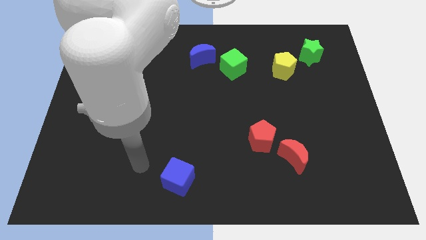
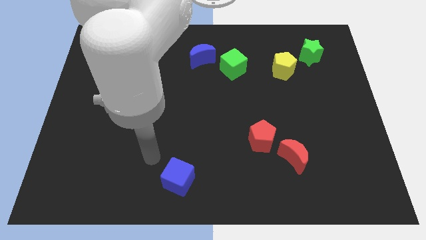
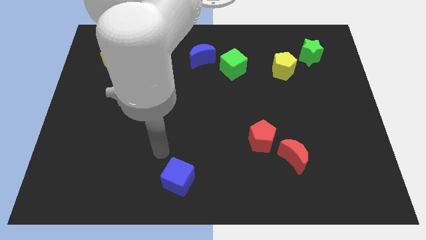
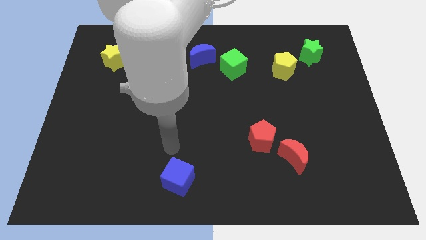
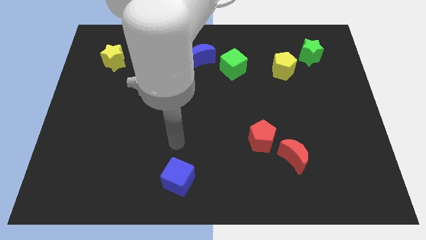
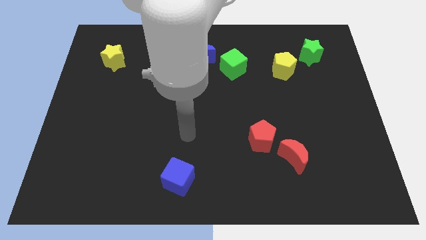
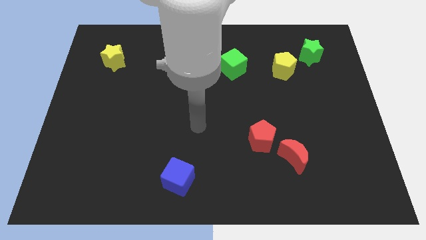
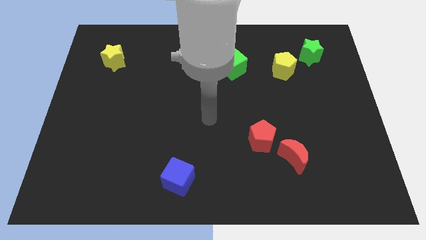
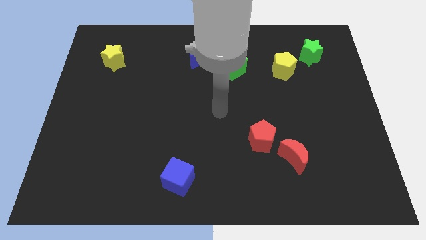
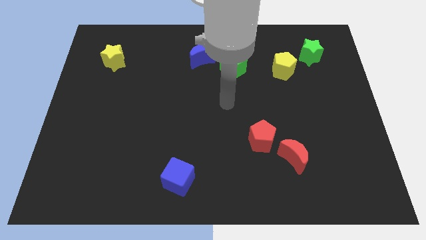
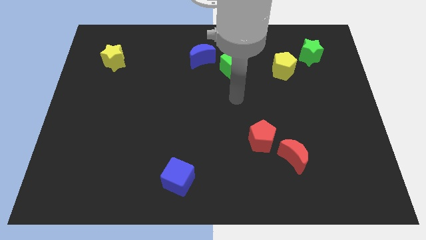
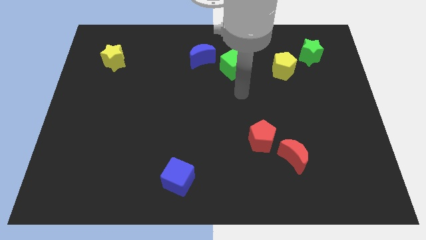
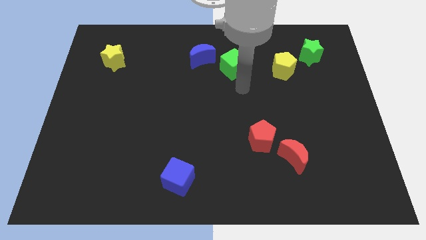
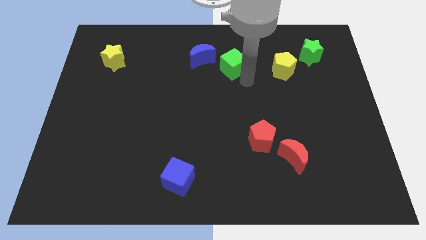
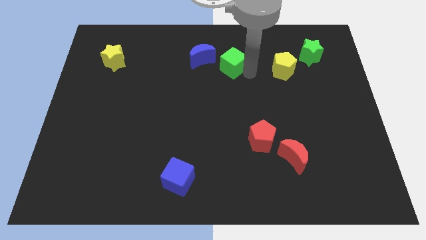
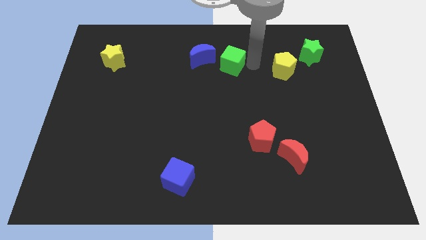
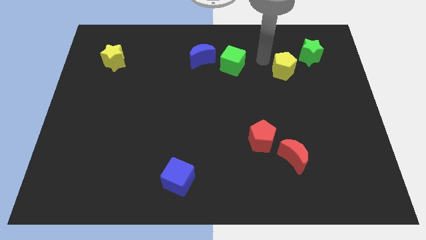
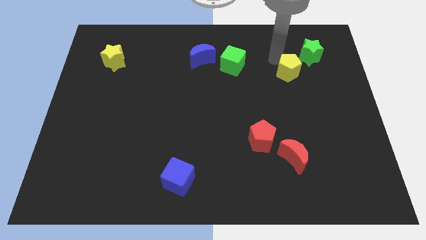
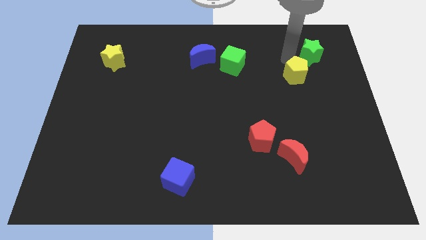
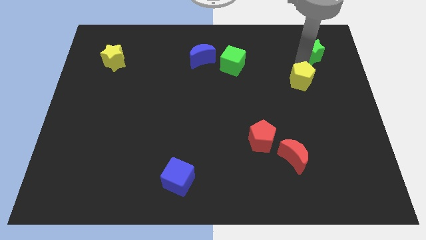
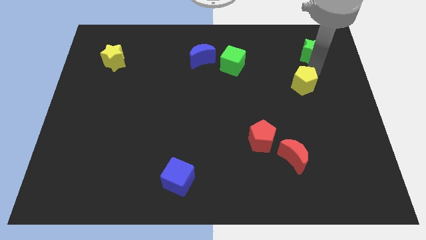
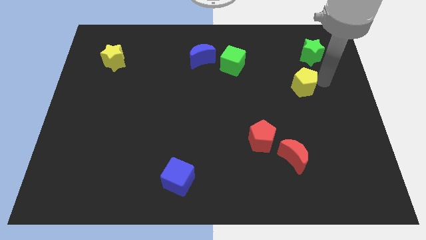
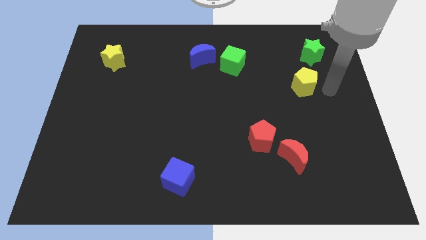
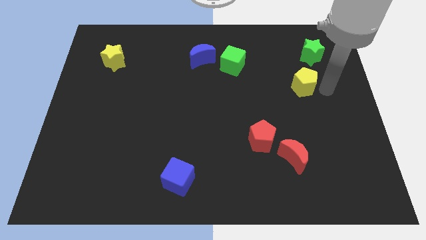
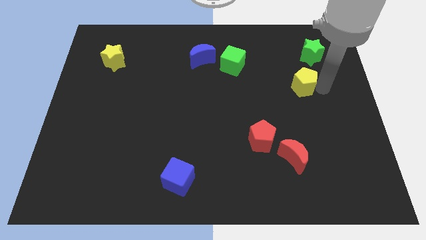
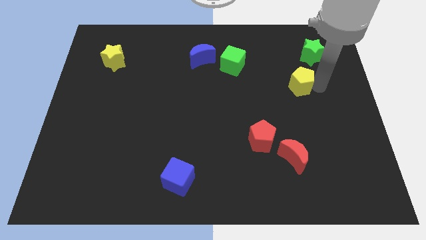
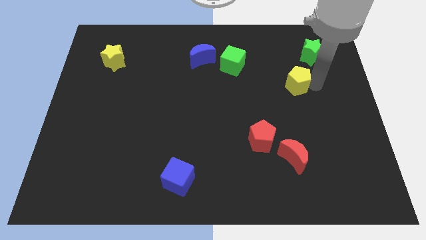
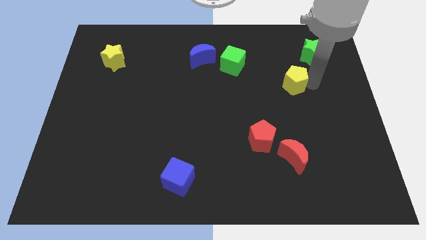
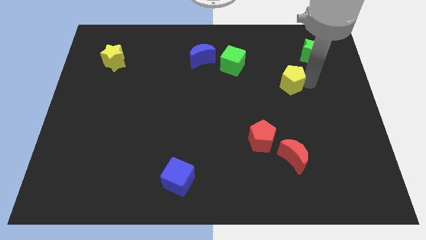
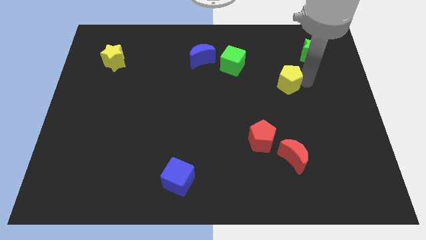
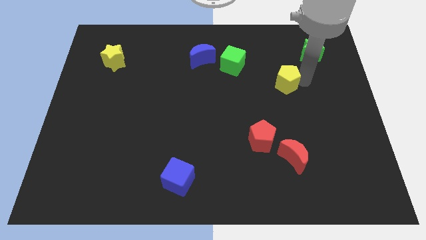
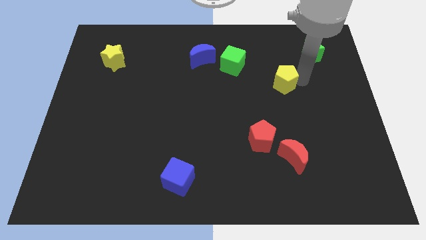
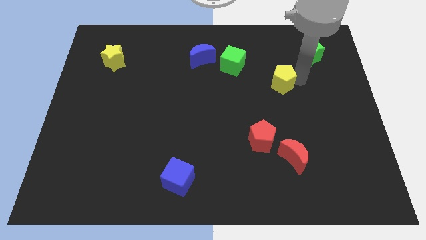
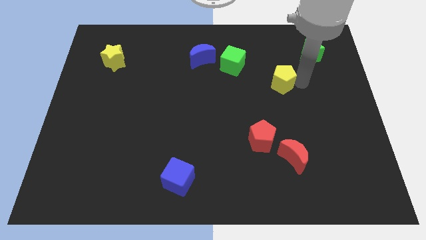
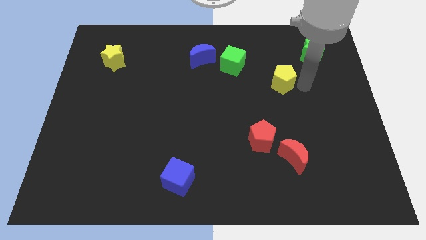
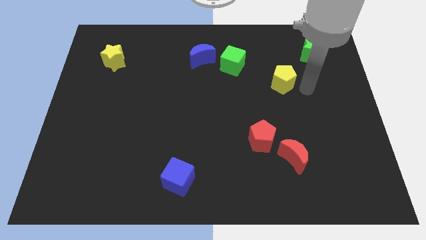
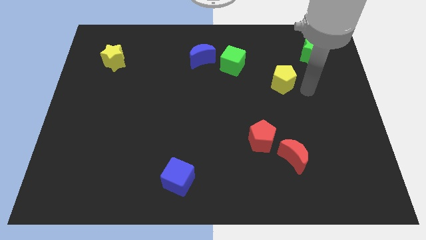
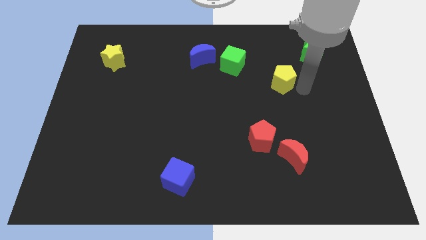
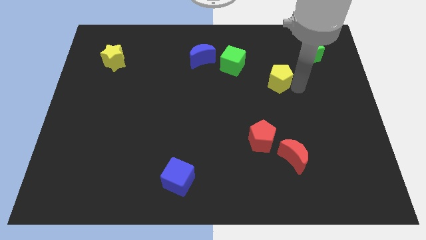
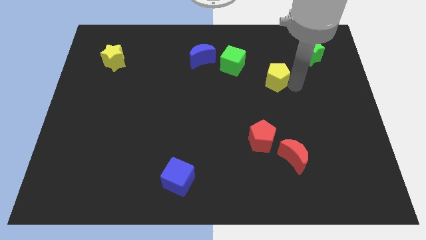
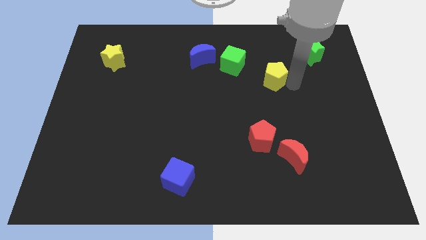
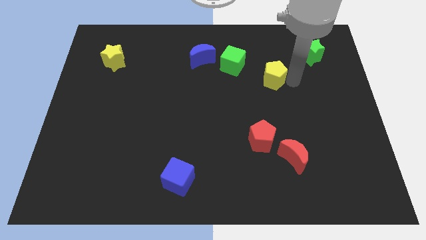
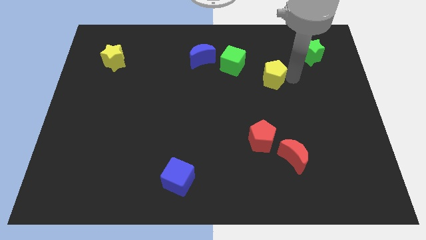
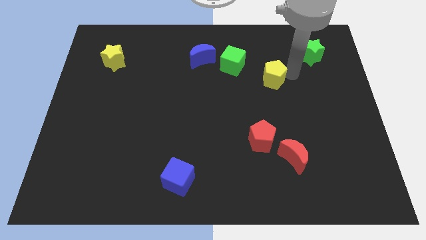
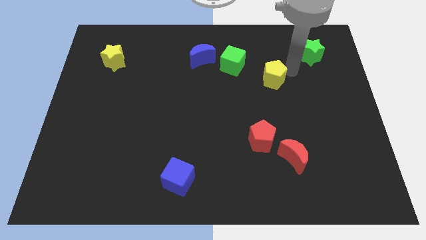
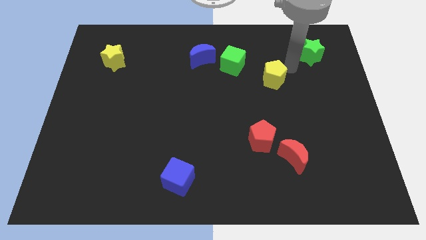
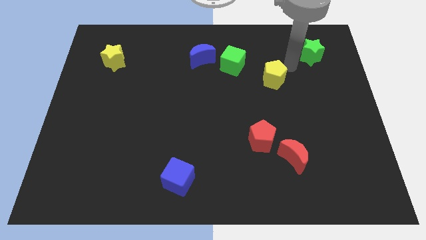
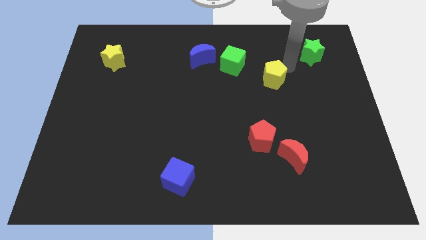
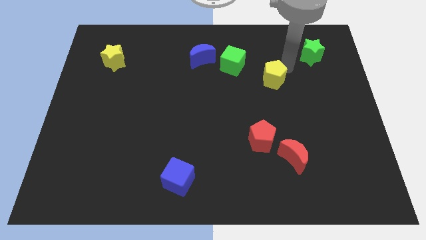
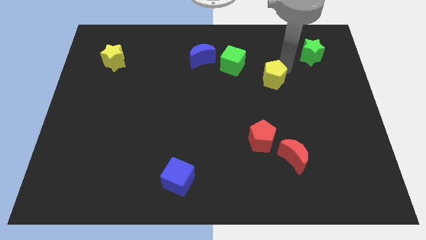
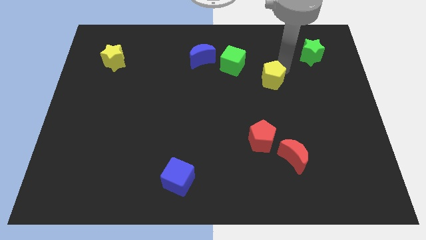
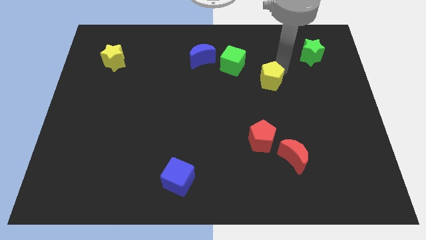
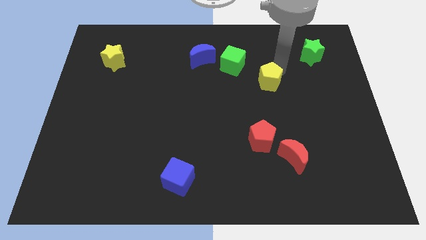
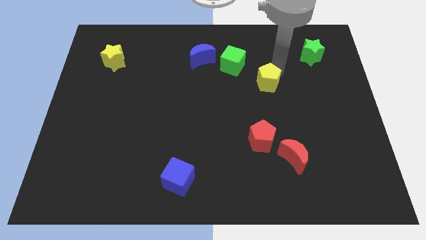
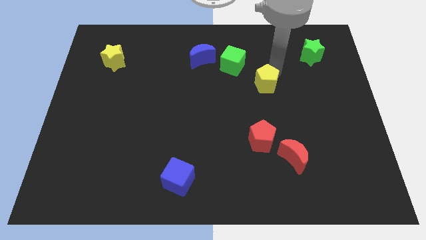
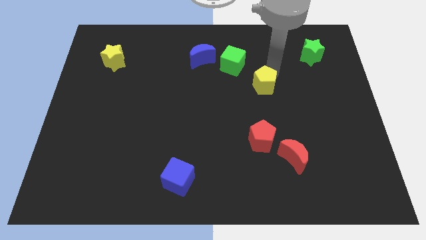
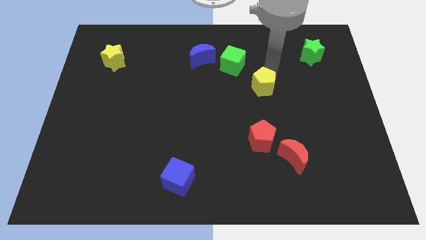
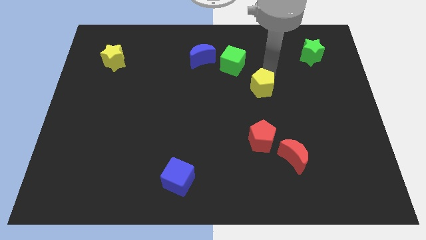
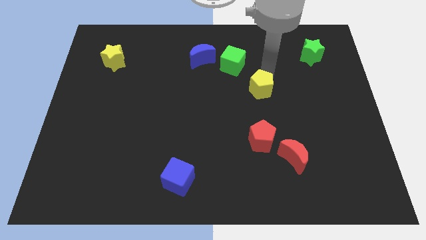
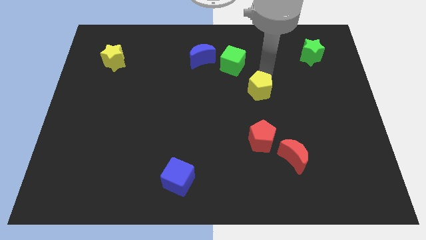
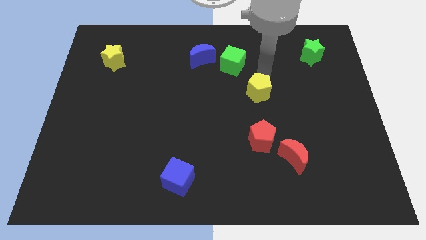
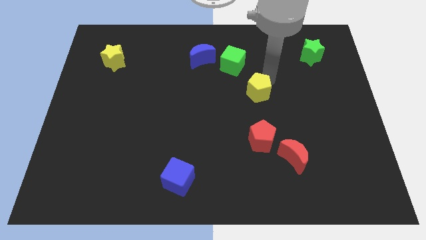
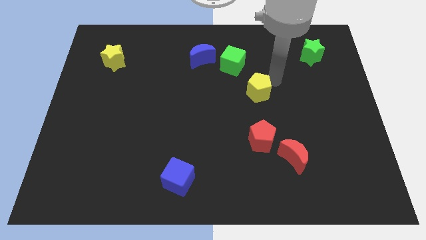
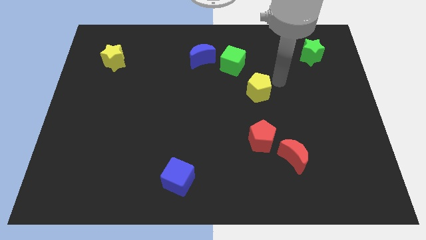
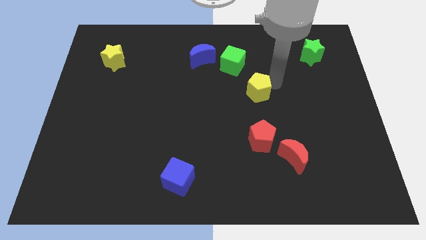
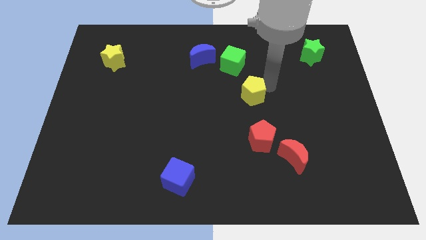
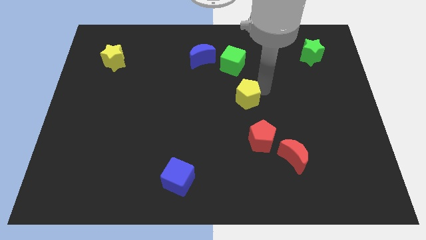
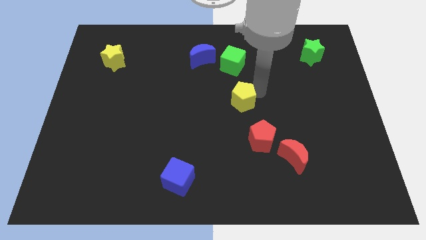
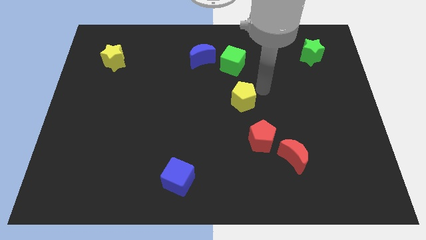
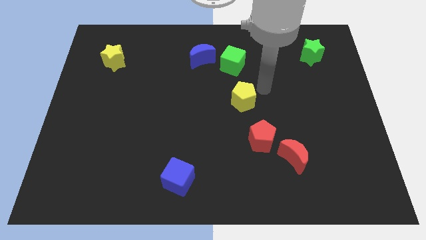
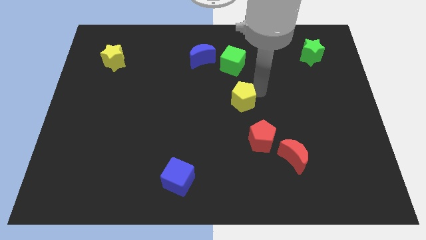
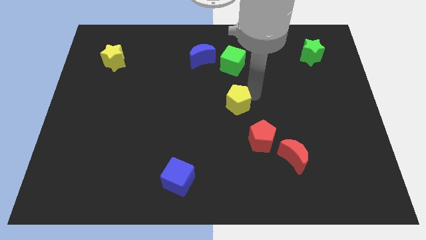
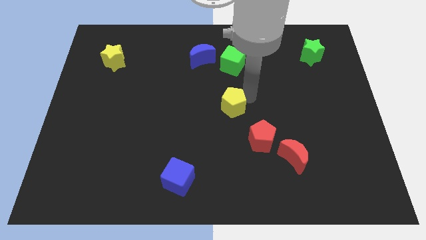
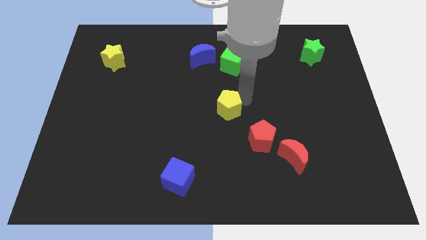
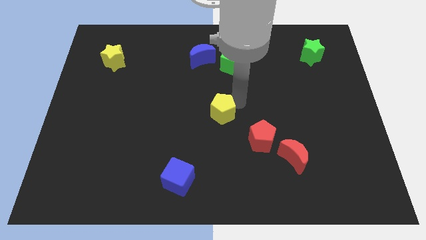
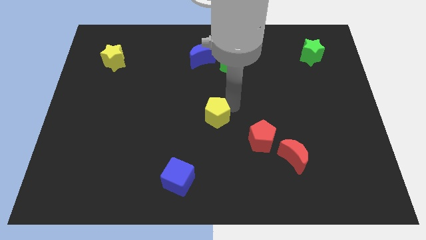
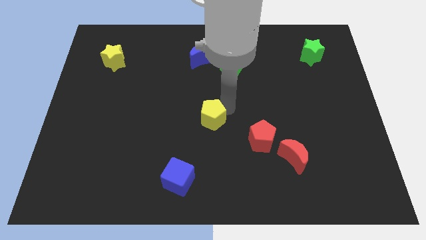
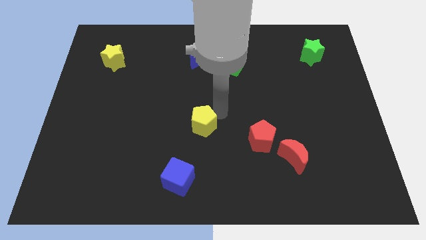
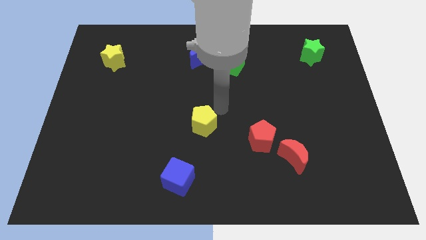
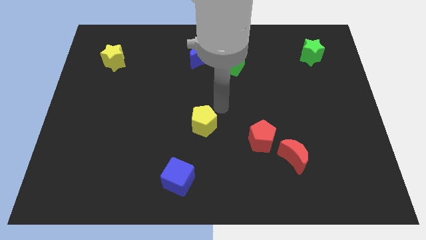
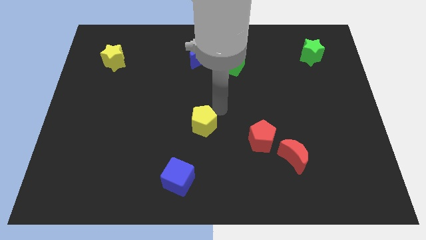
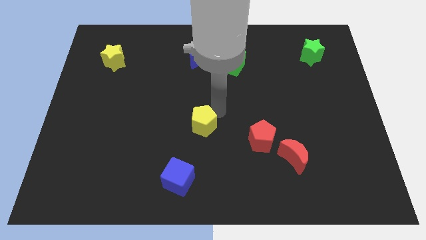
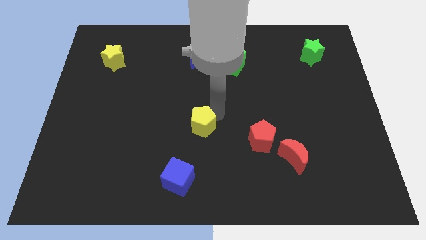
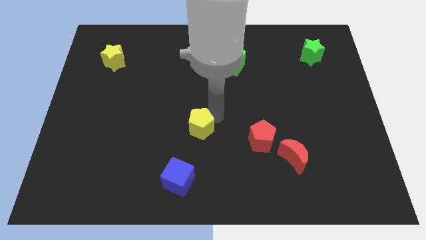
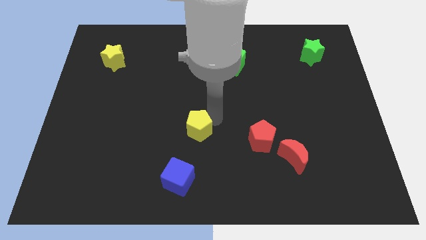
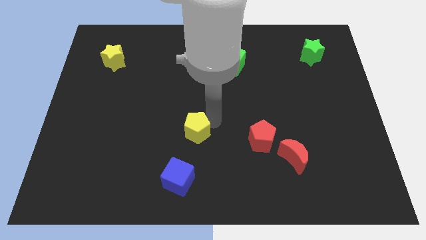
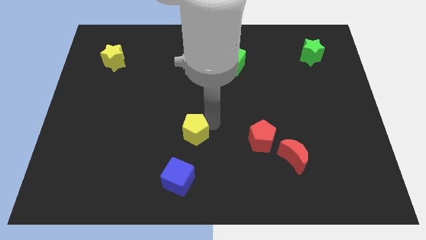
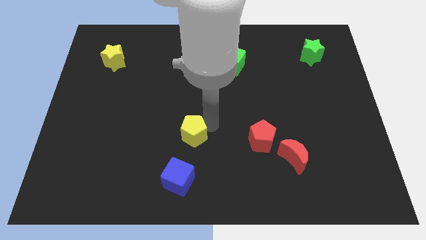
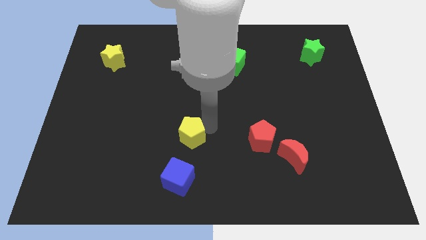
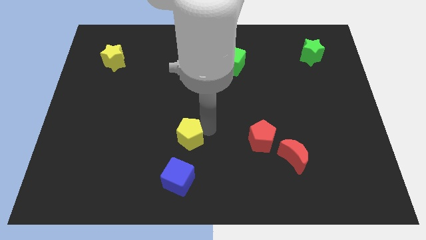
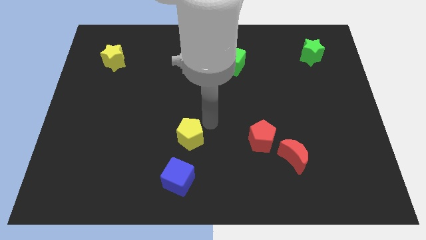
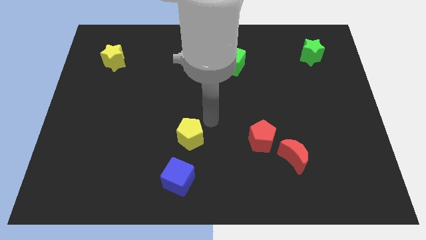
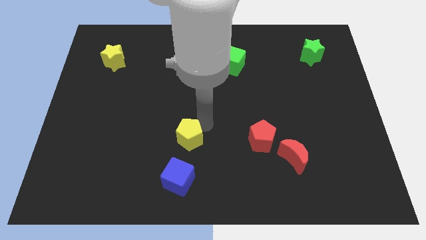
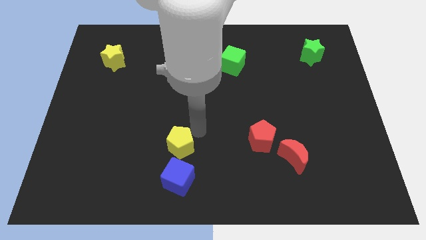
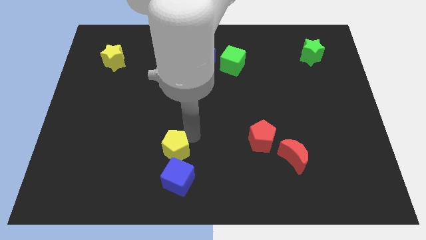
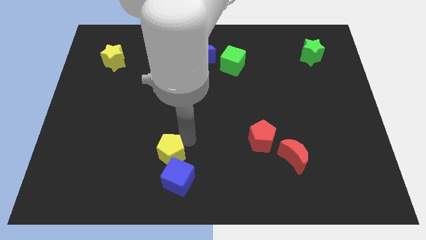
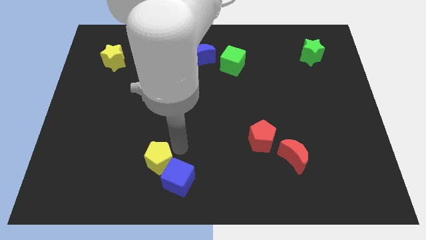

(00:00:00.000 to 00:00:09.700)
move the yellow pentagon to the left side of the blue cube
